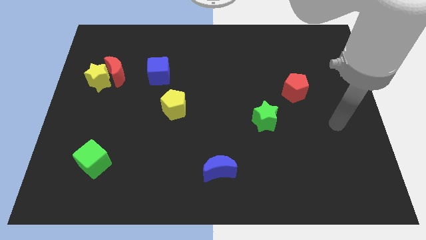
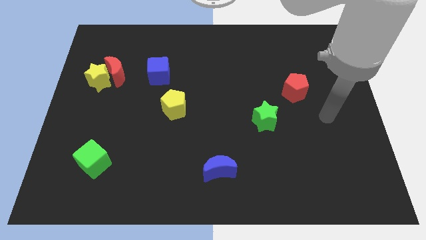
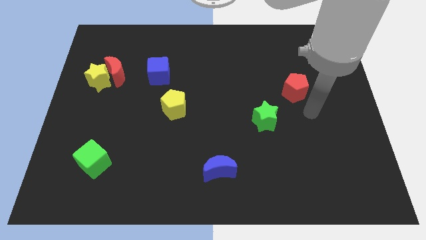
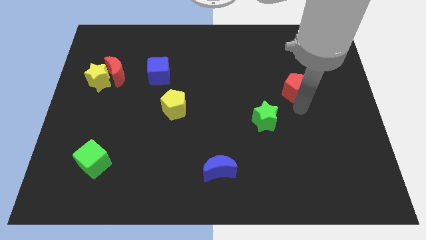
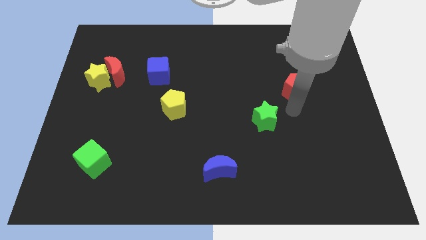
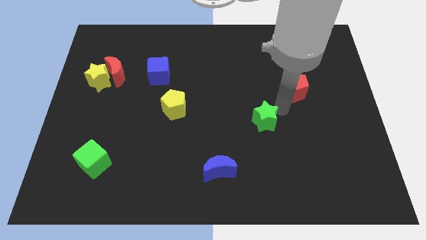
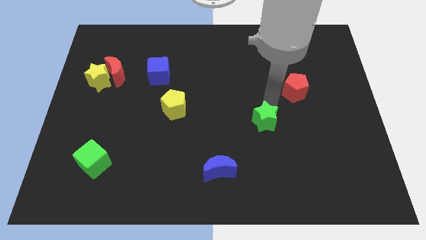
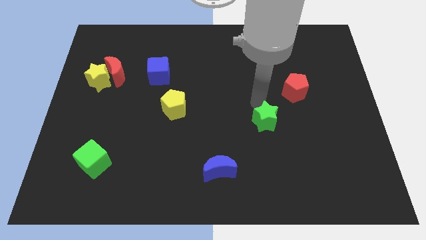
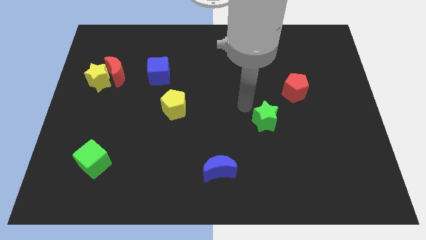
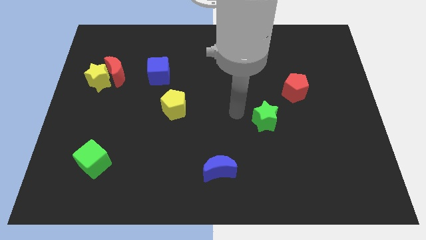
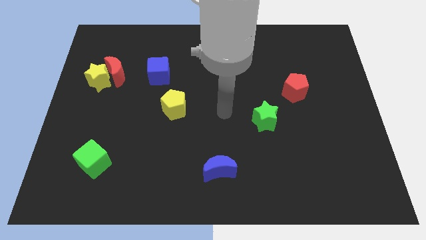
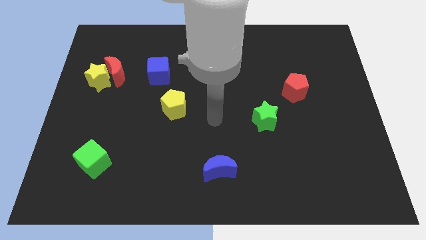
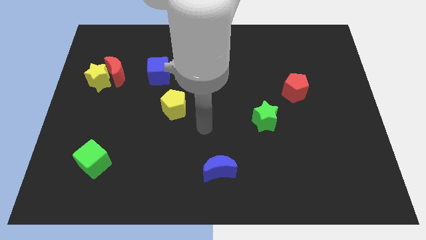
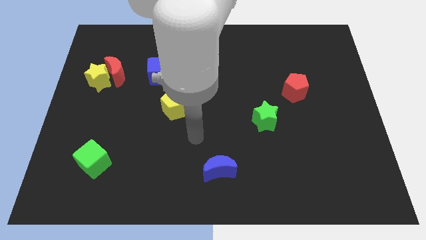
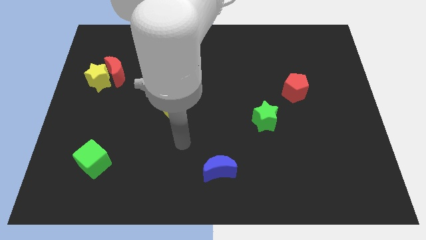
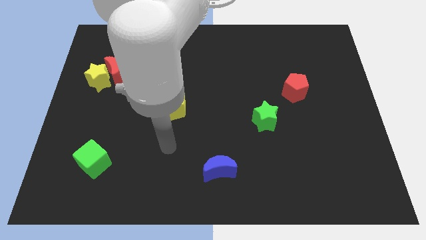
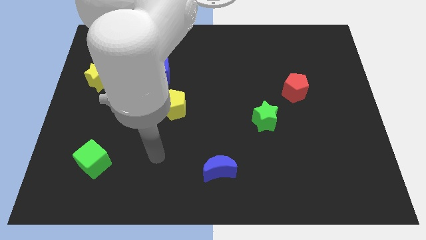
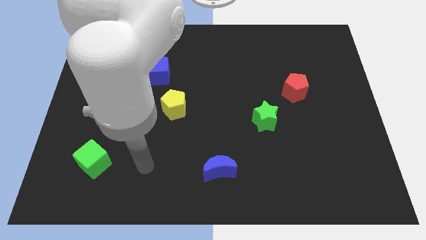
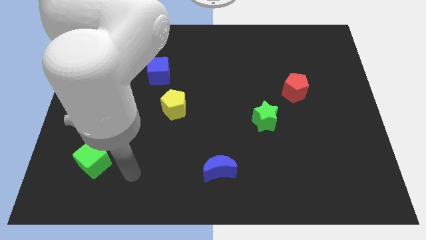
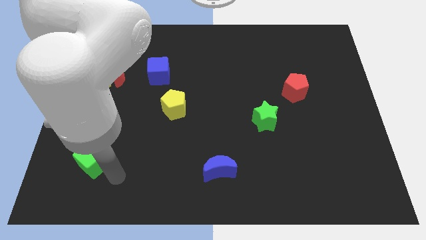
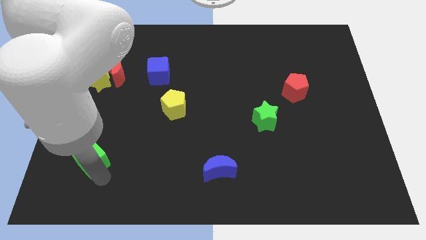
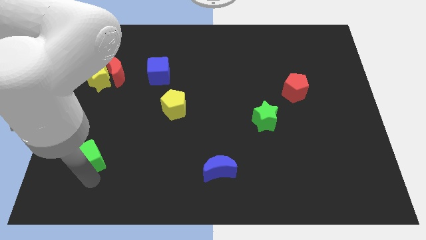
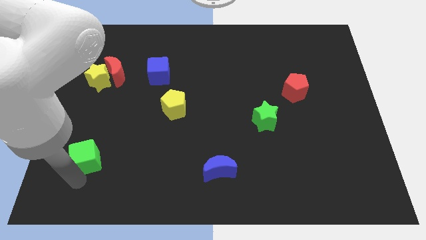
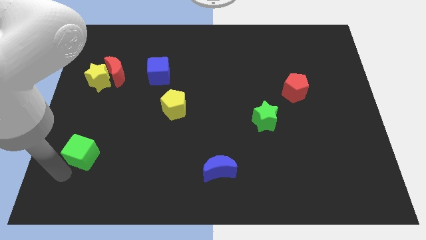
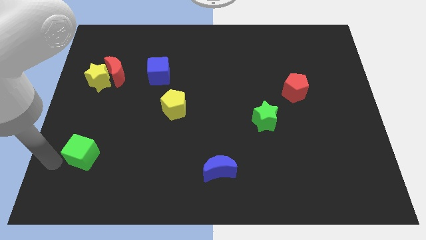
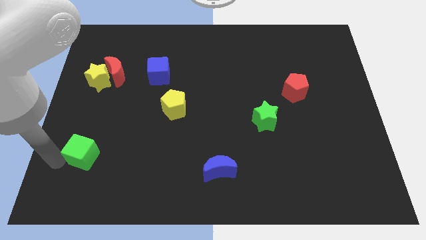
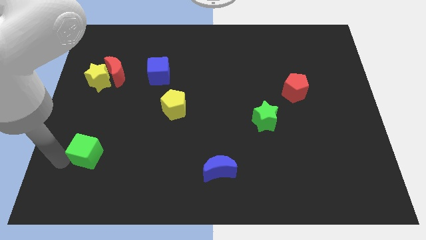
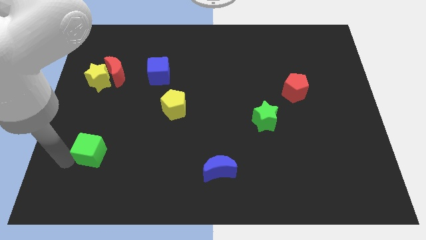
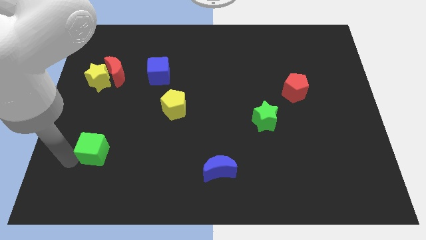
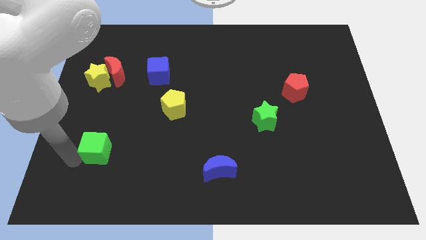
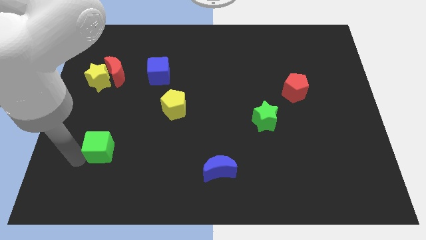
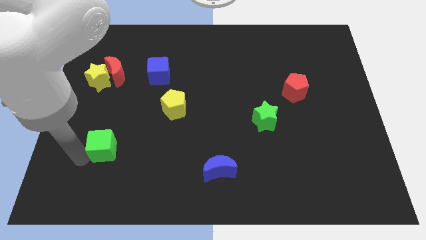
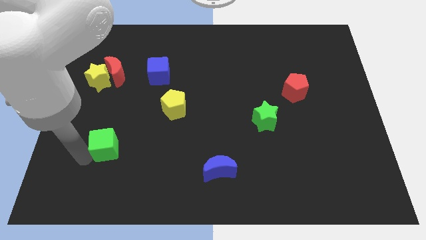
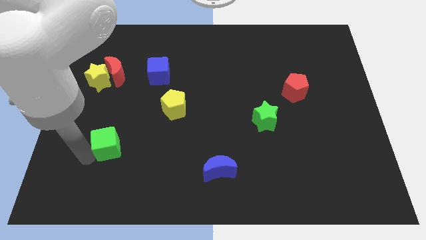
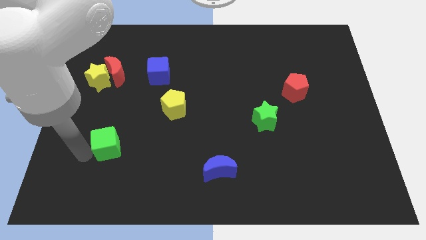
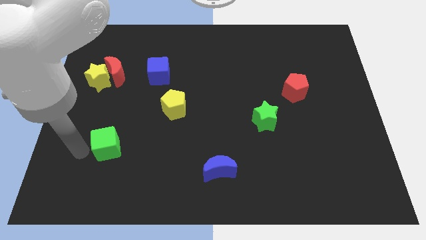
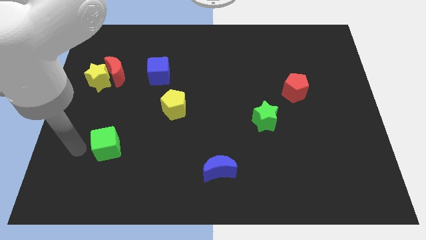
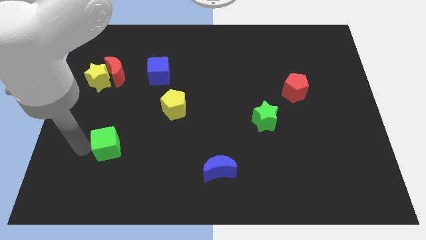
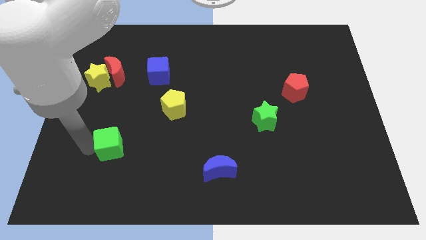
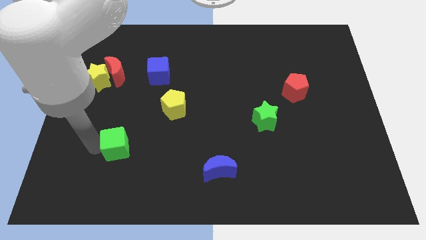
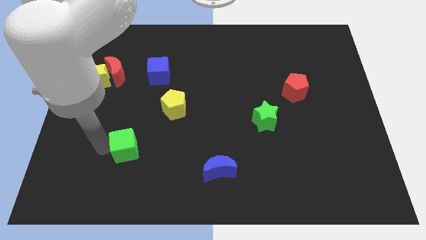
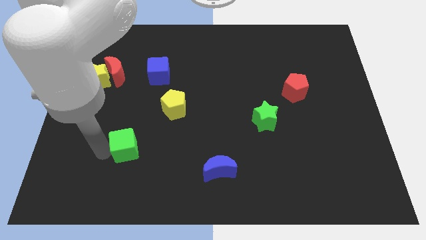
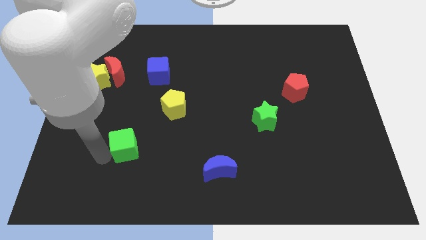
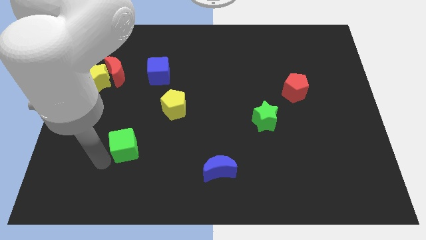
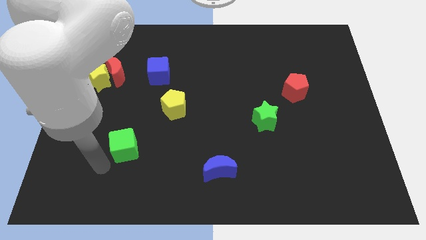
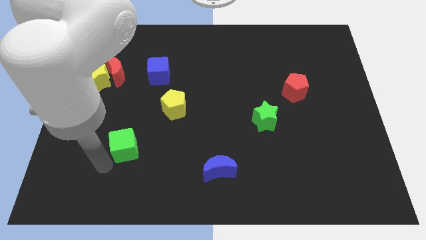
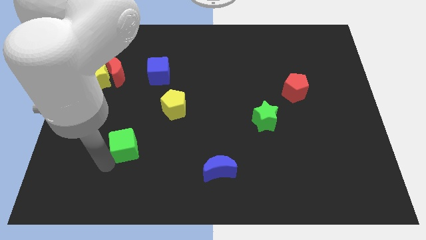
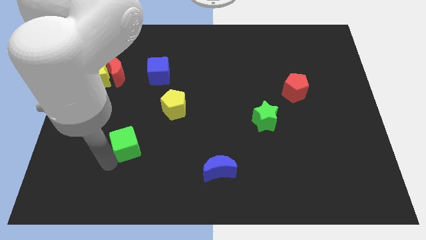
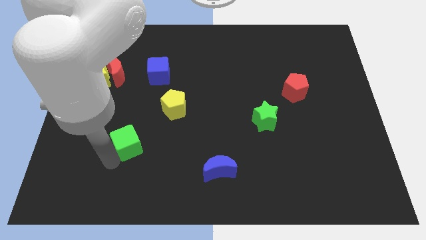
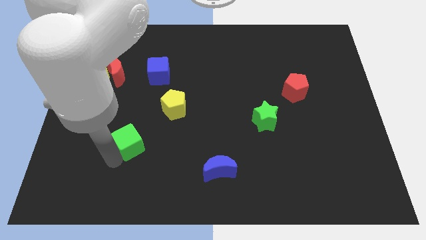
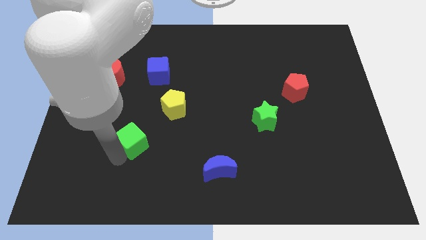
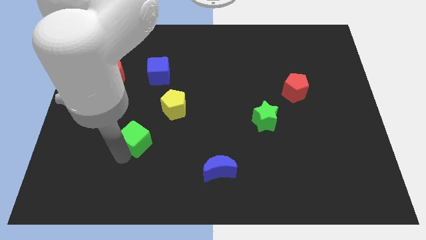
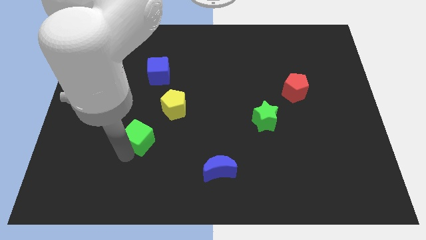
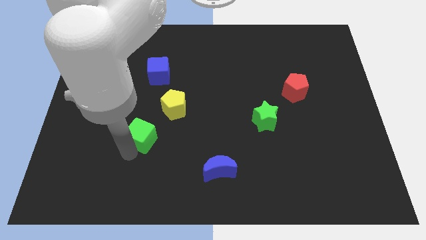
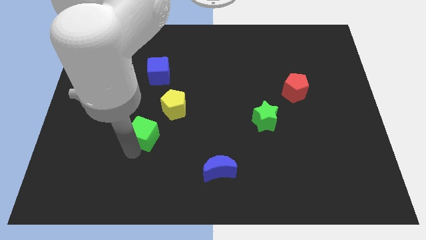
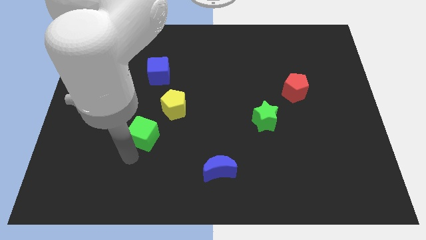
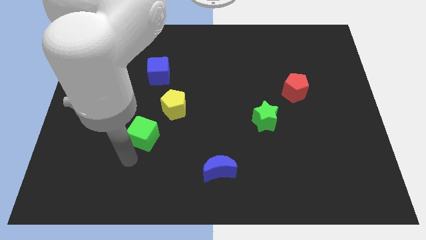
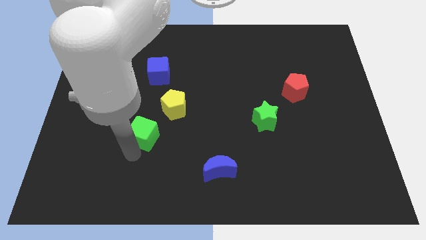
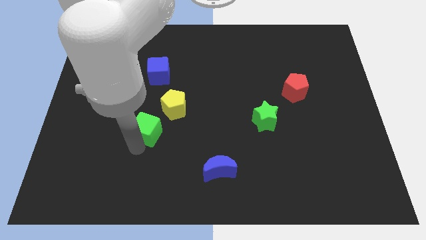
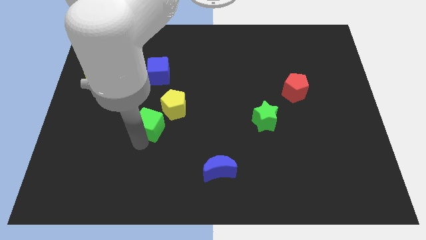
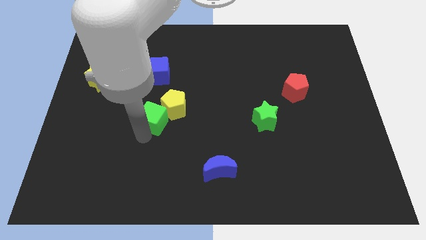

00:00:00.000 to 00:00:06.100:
move the green cube towards the yellow pentagon

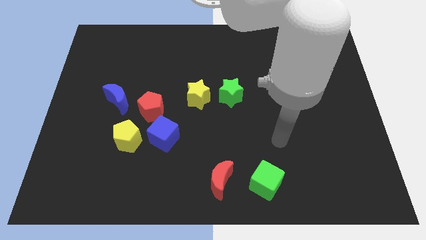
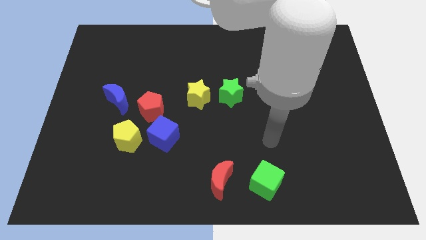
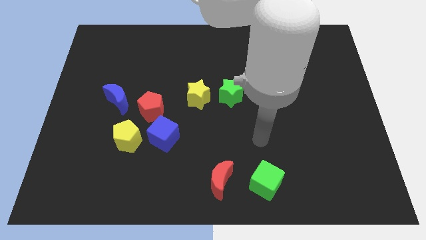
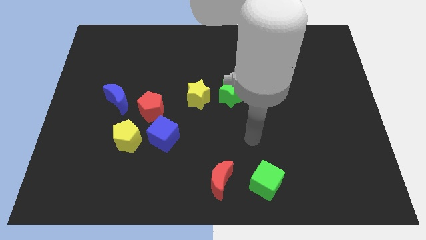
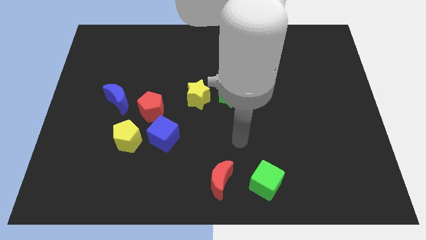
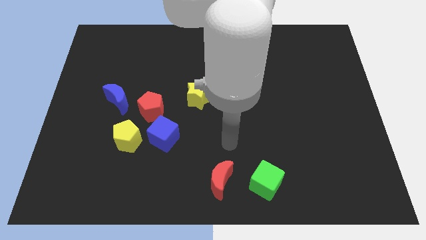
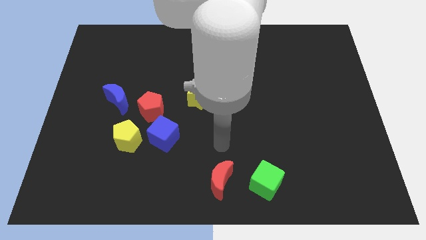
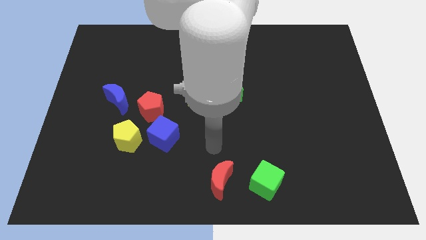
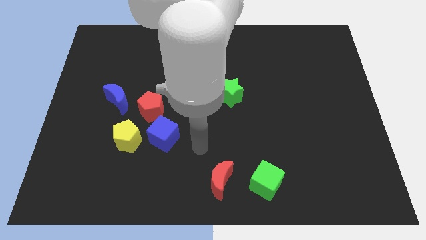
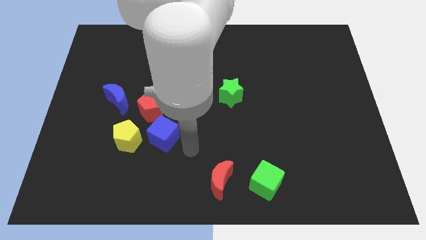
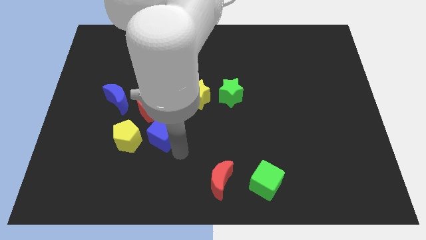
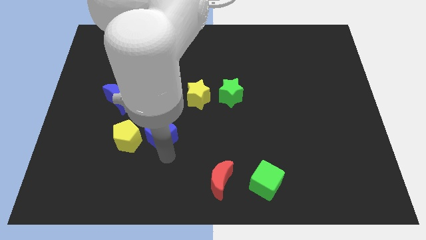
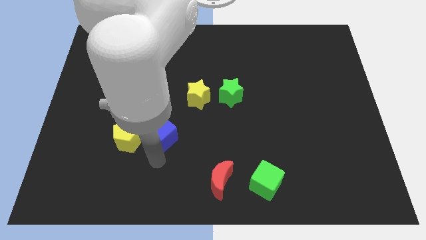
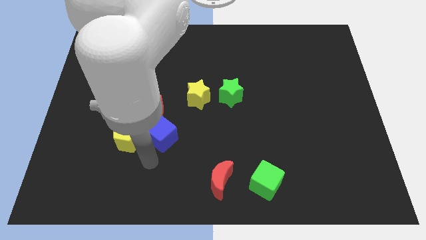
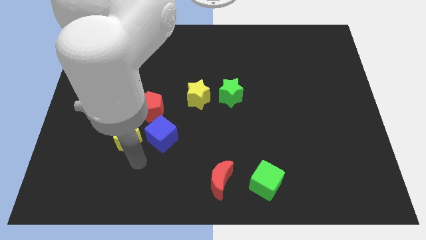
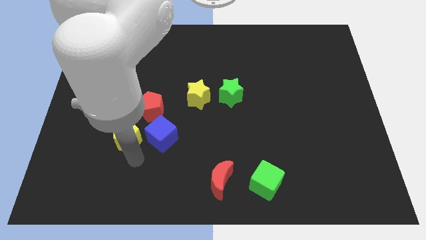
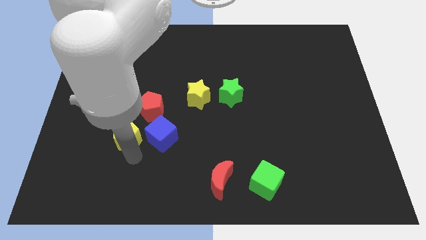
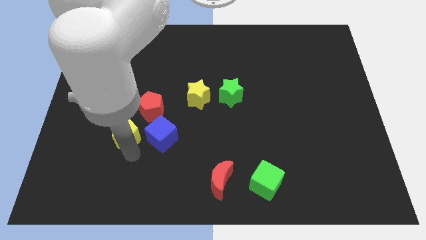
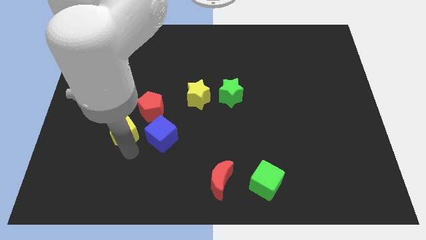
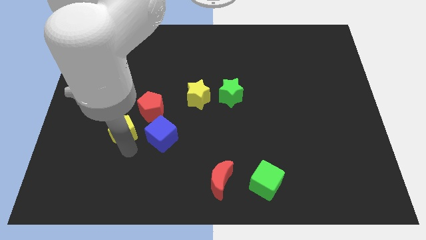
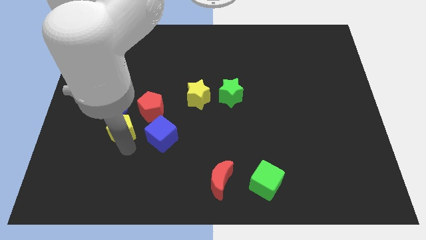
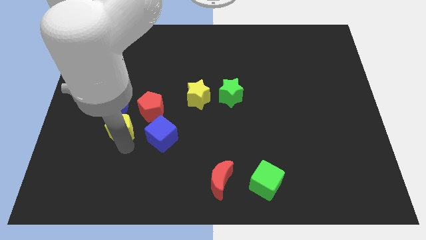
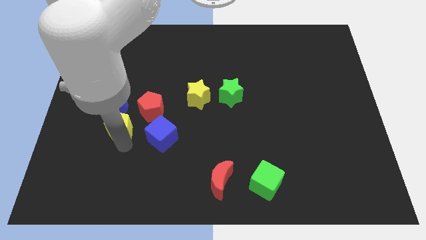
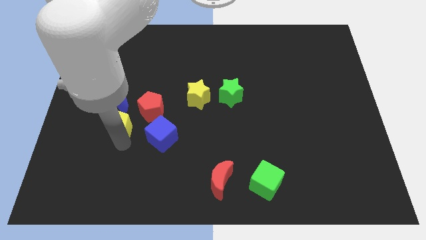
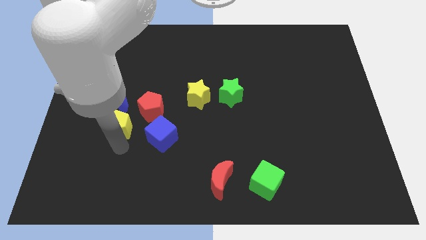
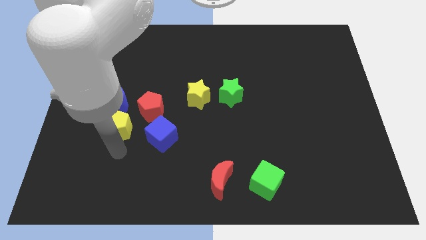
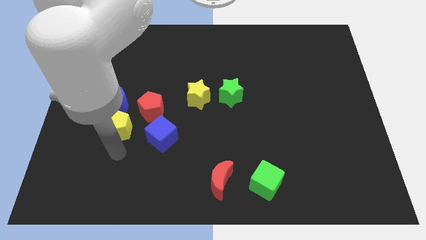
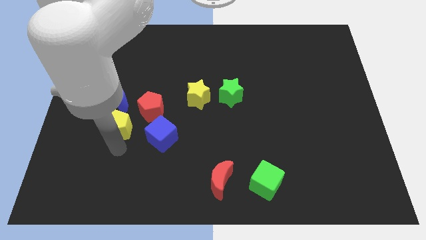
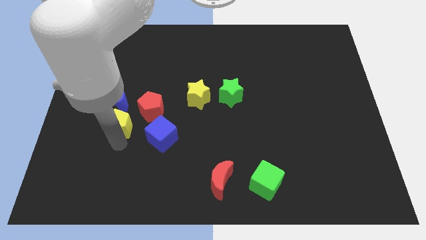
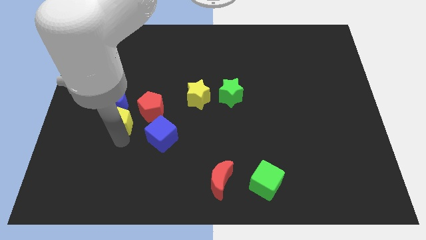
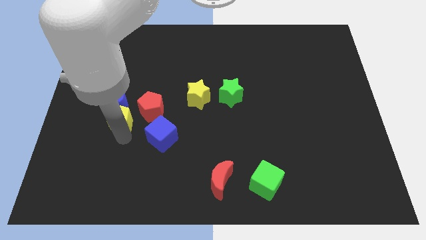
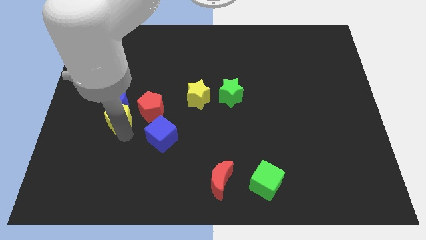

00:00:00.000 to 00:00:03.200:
move the yellow pentagon to the blue moon
